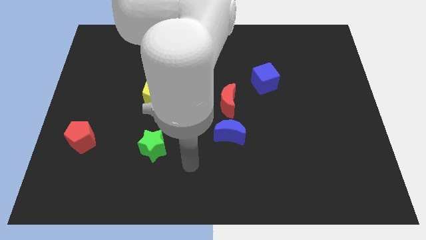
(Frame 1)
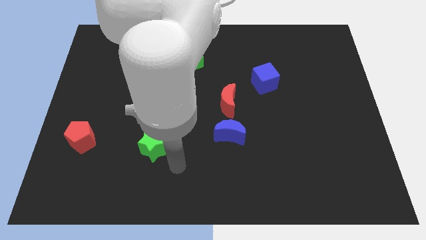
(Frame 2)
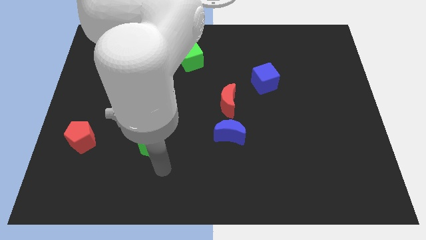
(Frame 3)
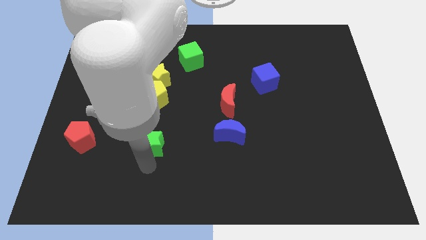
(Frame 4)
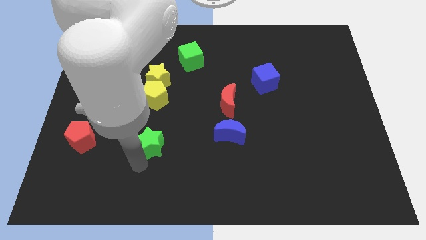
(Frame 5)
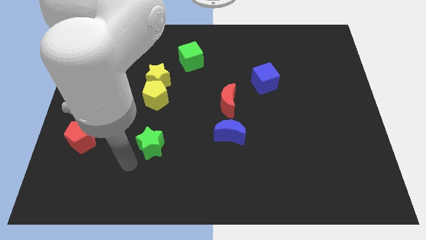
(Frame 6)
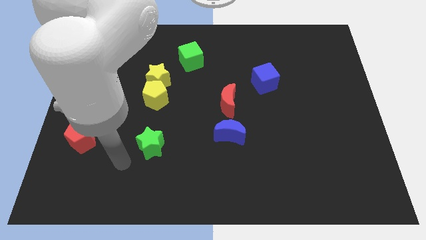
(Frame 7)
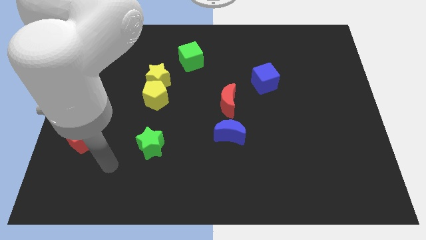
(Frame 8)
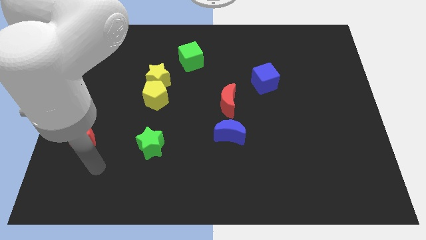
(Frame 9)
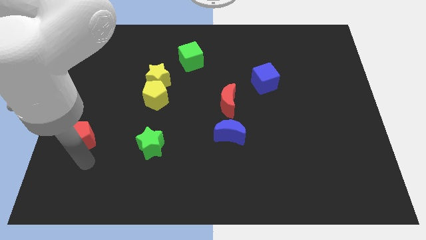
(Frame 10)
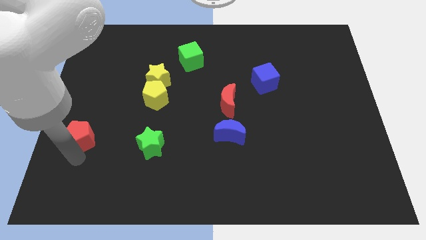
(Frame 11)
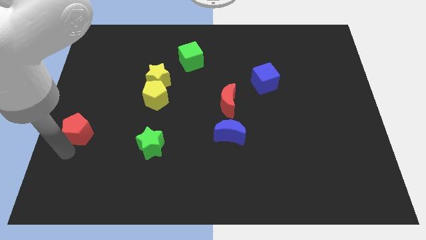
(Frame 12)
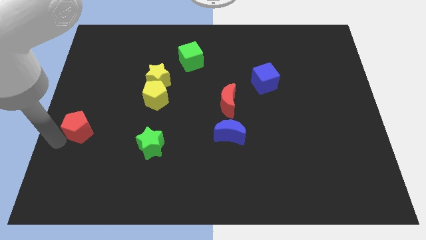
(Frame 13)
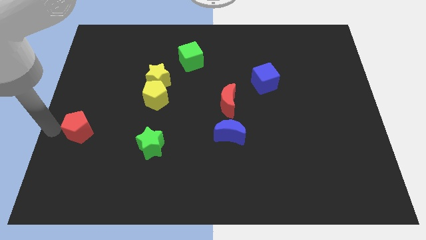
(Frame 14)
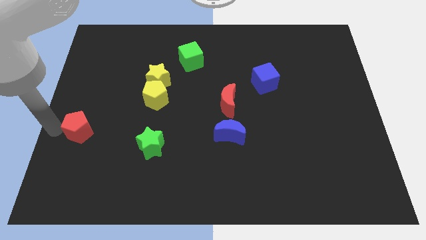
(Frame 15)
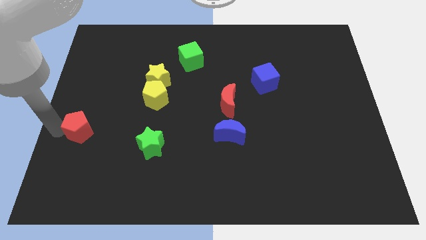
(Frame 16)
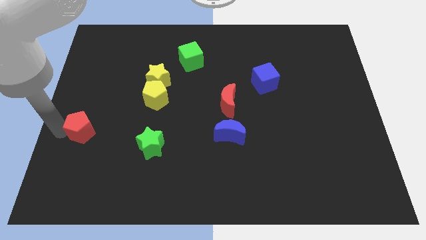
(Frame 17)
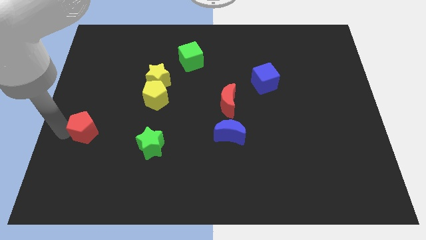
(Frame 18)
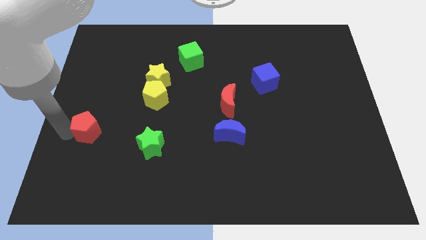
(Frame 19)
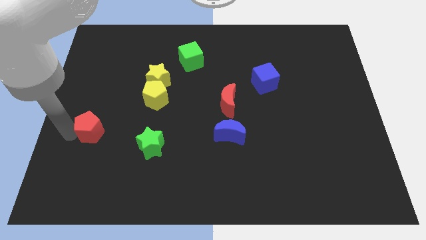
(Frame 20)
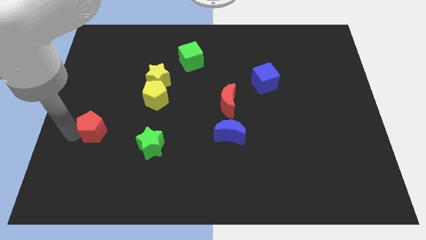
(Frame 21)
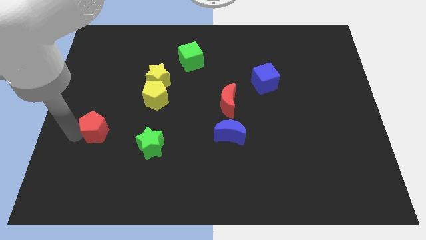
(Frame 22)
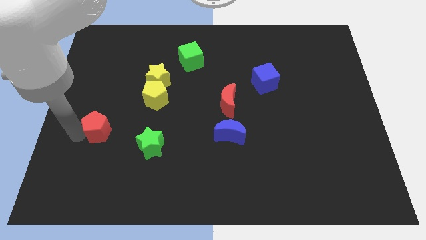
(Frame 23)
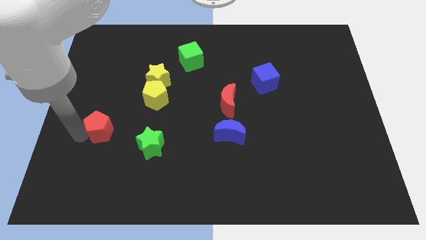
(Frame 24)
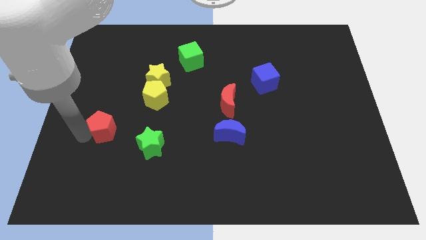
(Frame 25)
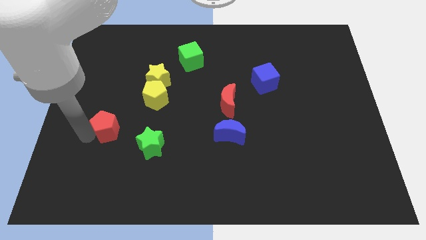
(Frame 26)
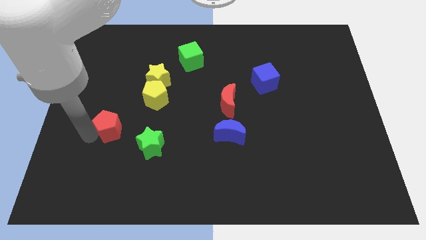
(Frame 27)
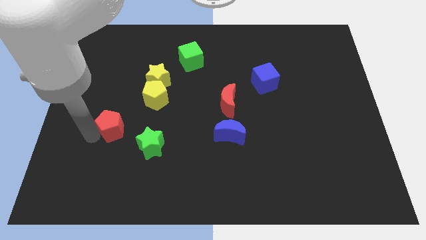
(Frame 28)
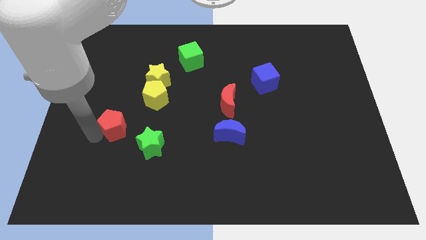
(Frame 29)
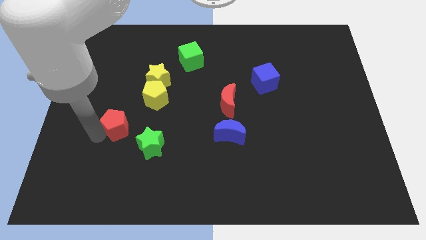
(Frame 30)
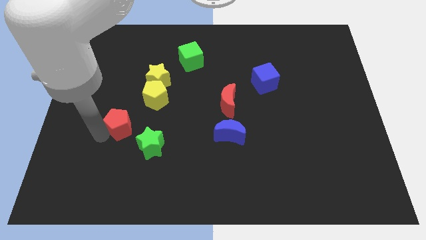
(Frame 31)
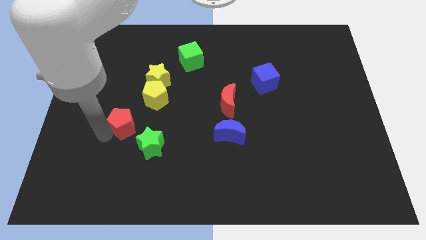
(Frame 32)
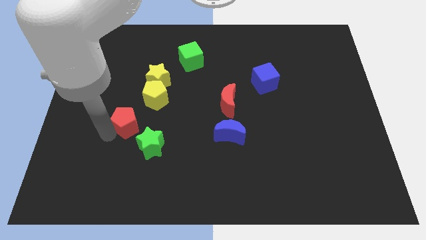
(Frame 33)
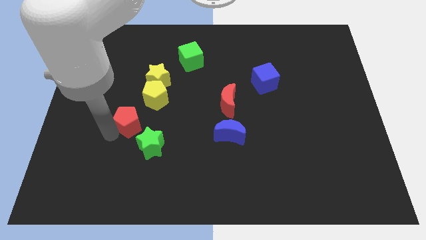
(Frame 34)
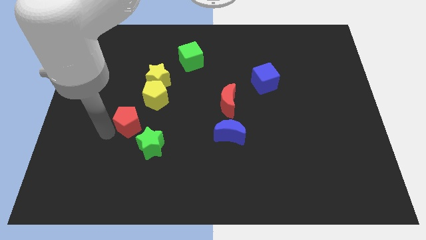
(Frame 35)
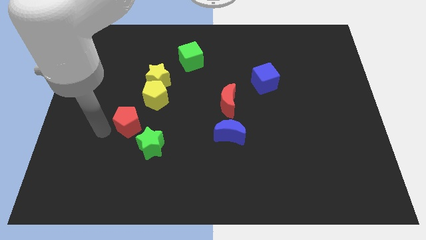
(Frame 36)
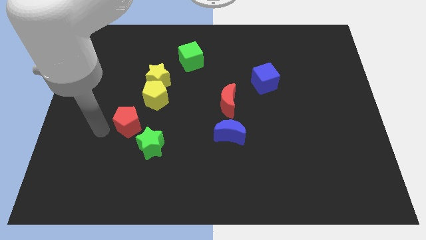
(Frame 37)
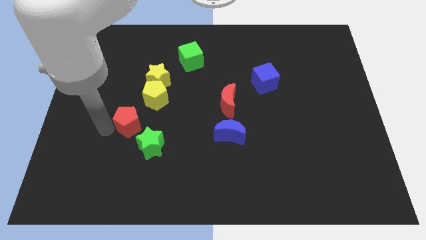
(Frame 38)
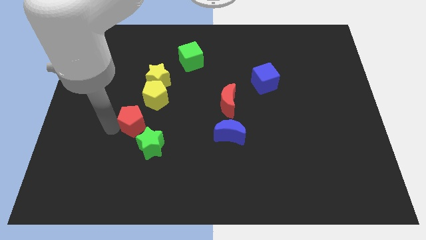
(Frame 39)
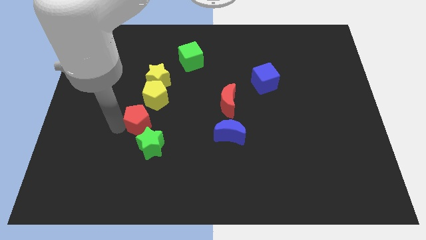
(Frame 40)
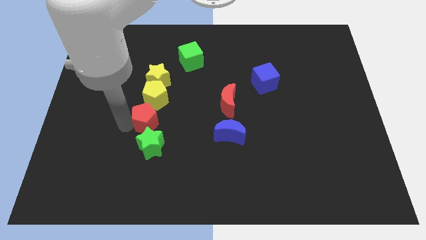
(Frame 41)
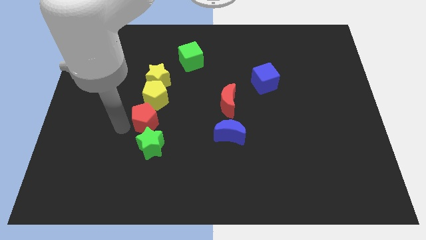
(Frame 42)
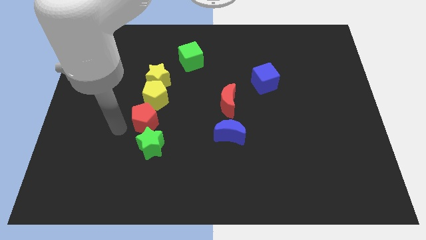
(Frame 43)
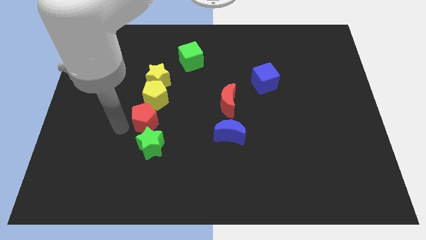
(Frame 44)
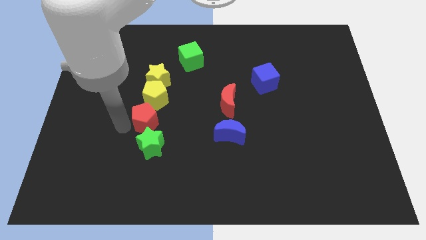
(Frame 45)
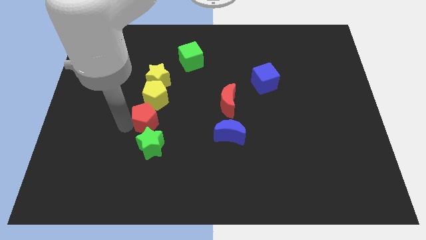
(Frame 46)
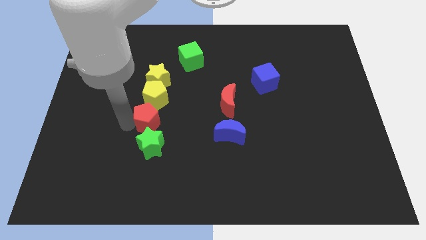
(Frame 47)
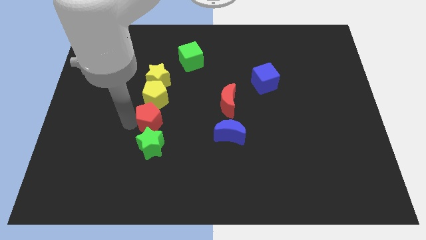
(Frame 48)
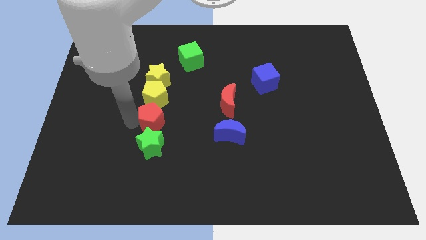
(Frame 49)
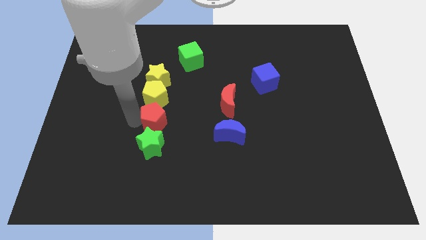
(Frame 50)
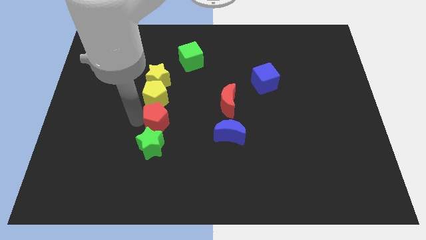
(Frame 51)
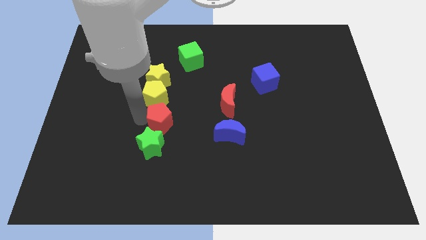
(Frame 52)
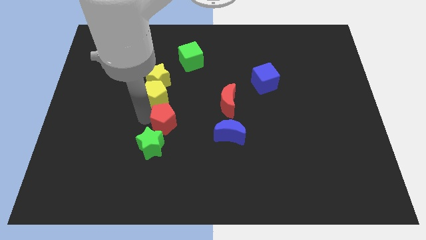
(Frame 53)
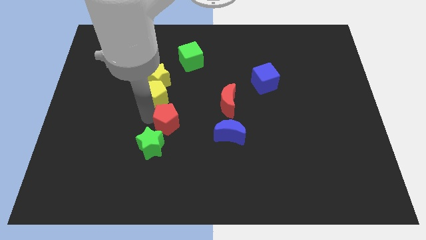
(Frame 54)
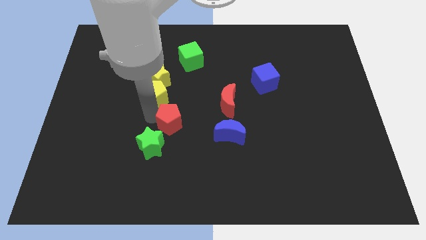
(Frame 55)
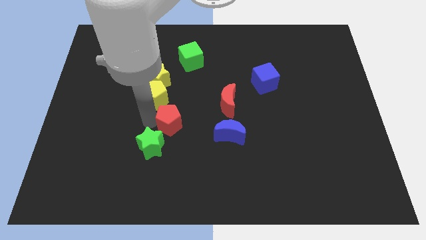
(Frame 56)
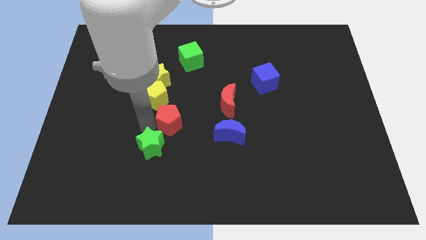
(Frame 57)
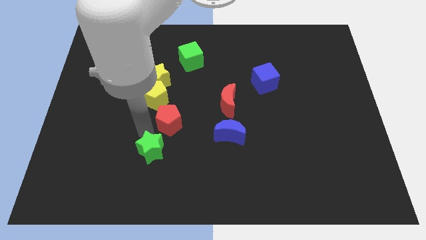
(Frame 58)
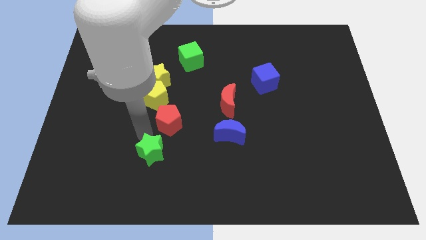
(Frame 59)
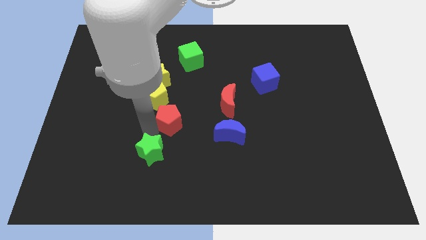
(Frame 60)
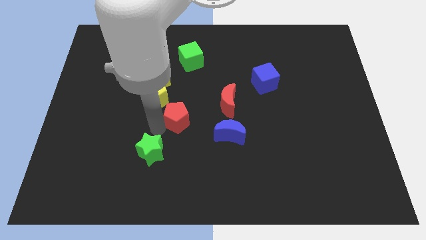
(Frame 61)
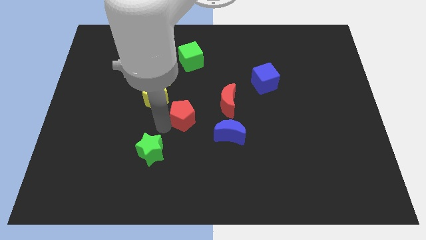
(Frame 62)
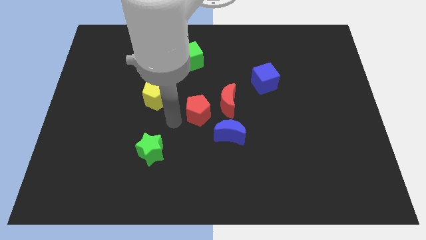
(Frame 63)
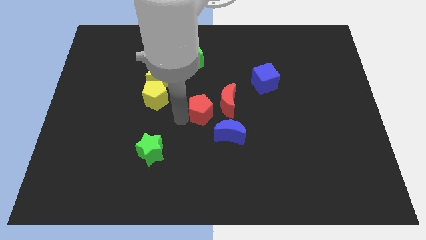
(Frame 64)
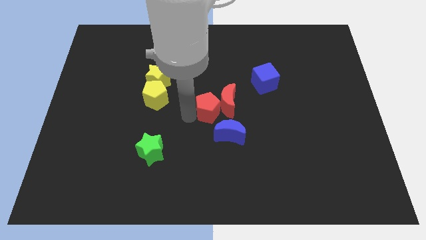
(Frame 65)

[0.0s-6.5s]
put the red pentagon close to the red moon
